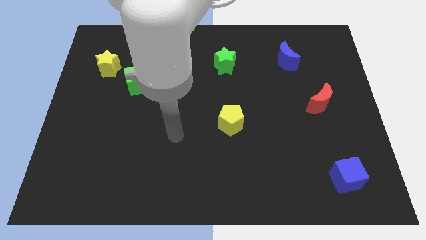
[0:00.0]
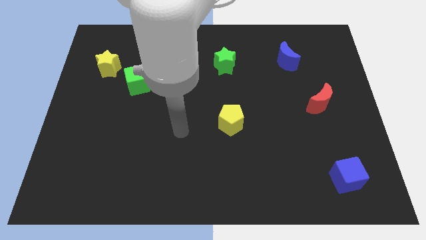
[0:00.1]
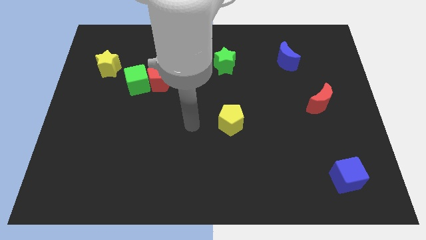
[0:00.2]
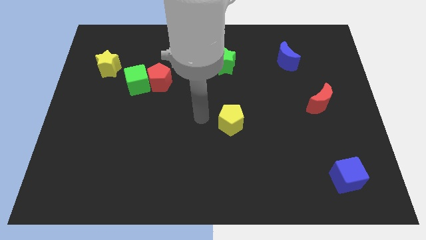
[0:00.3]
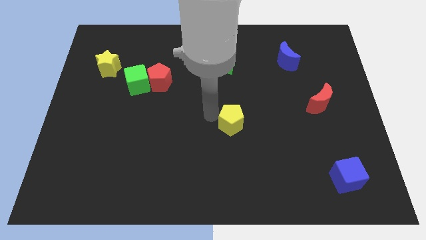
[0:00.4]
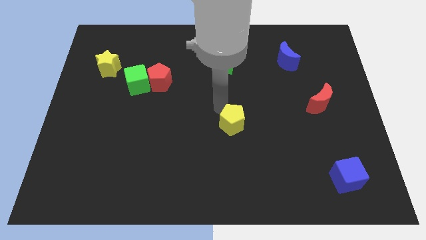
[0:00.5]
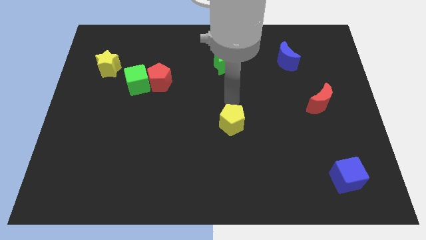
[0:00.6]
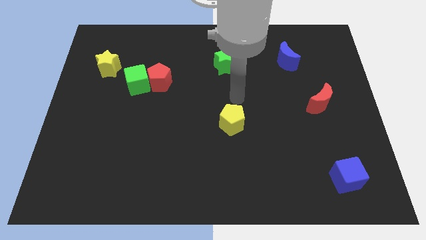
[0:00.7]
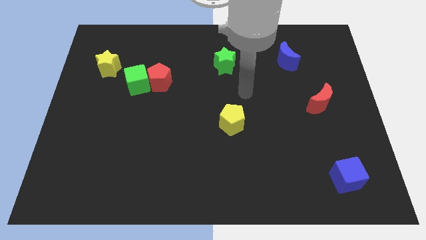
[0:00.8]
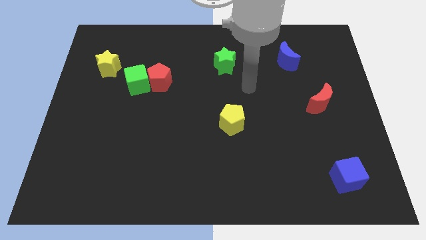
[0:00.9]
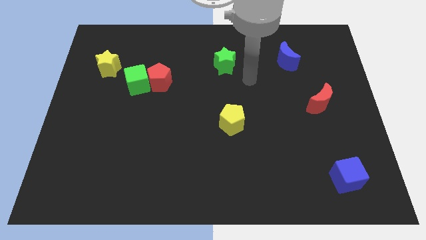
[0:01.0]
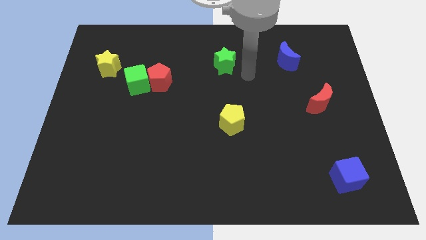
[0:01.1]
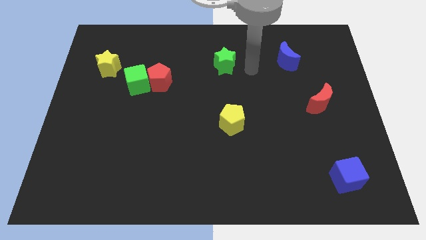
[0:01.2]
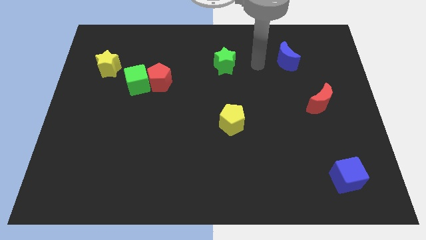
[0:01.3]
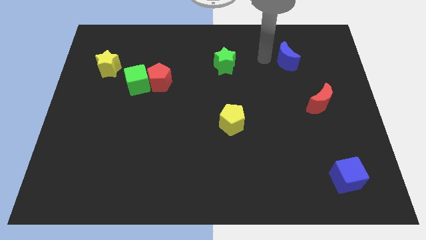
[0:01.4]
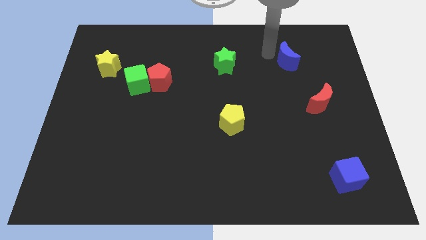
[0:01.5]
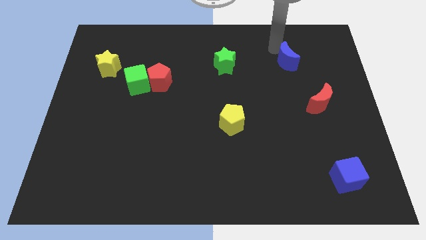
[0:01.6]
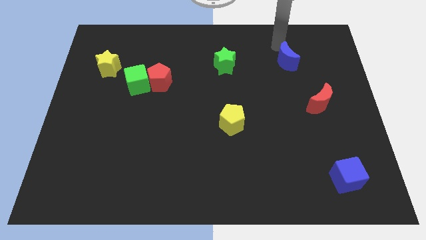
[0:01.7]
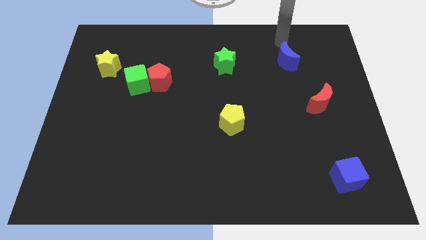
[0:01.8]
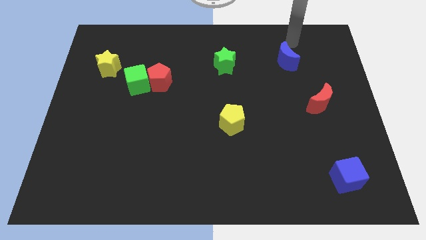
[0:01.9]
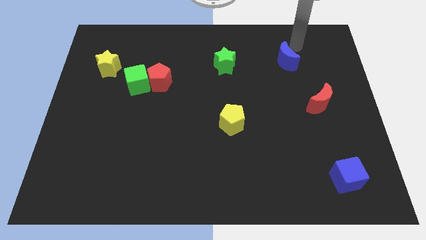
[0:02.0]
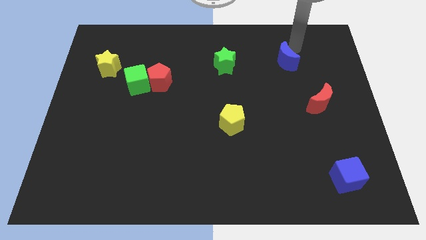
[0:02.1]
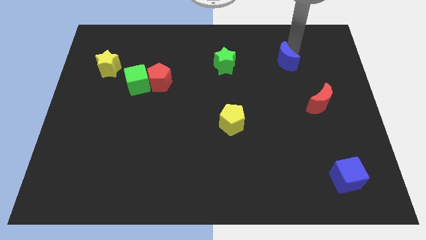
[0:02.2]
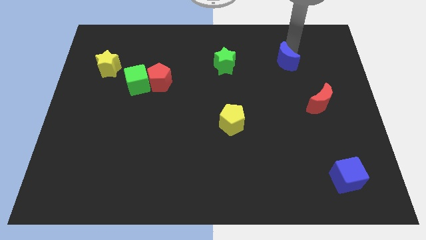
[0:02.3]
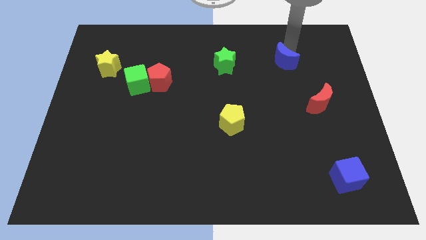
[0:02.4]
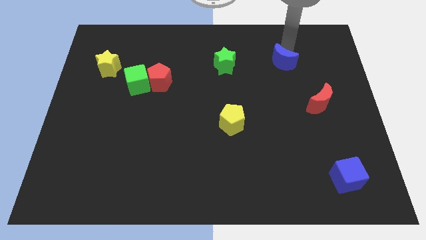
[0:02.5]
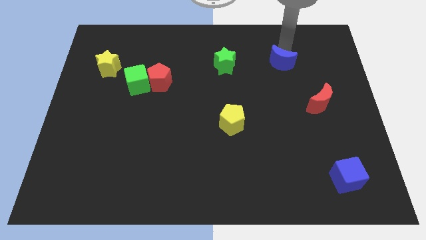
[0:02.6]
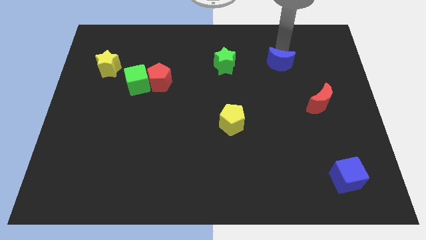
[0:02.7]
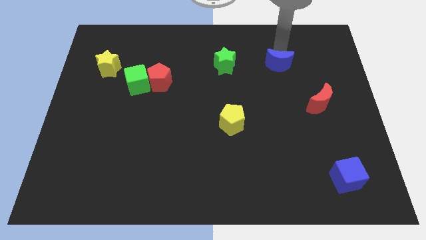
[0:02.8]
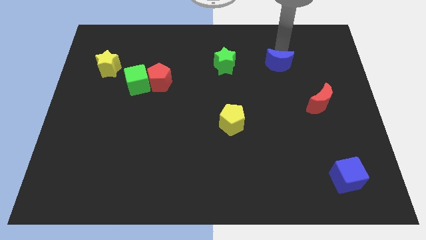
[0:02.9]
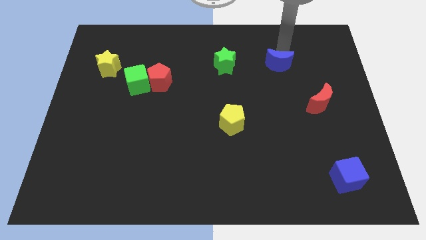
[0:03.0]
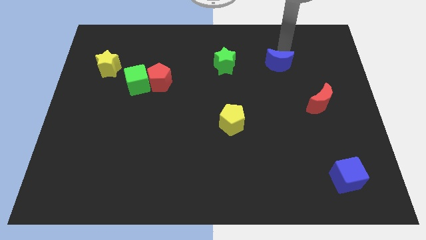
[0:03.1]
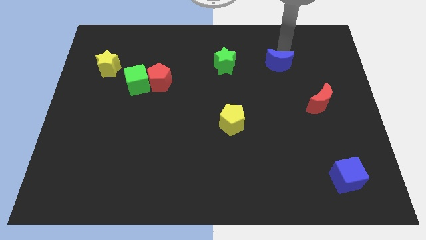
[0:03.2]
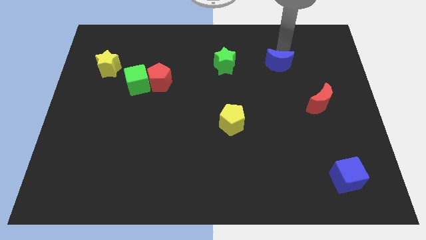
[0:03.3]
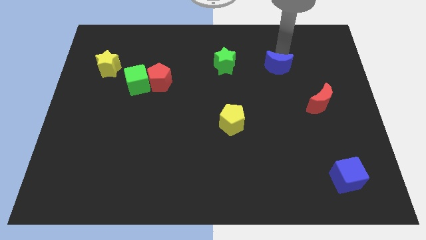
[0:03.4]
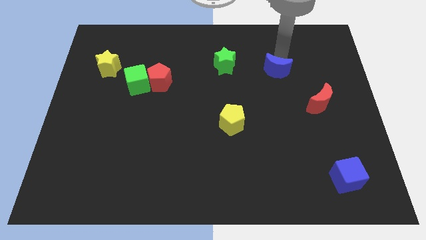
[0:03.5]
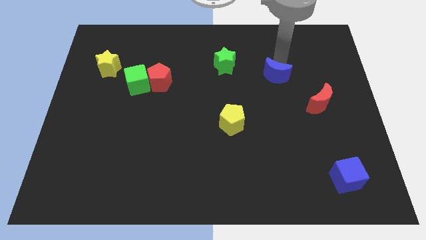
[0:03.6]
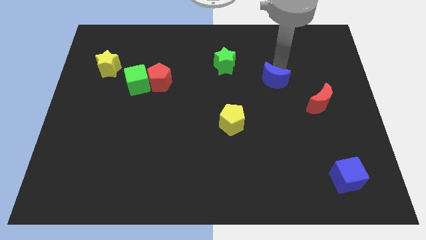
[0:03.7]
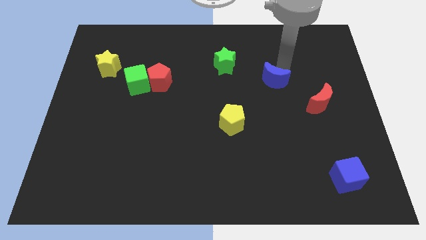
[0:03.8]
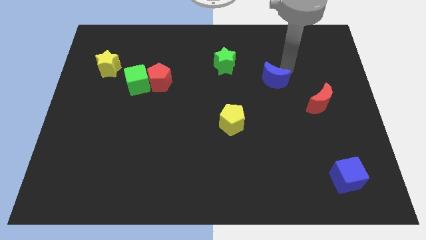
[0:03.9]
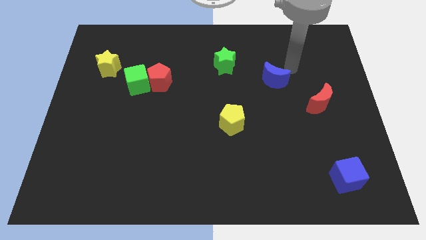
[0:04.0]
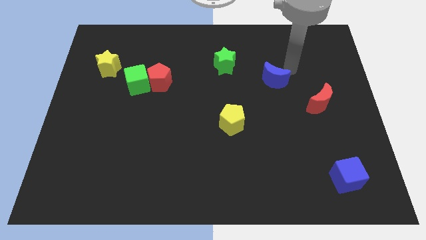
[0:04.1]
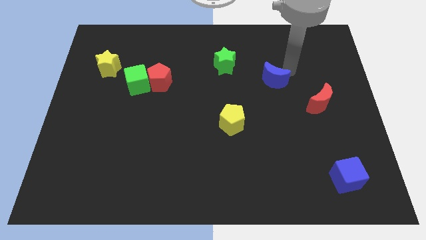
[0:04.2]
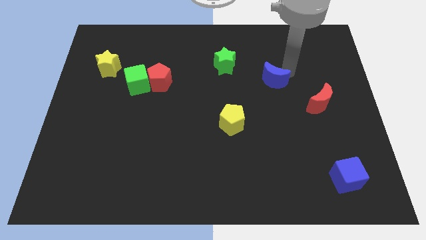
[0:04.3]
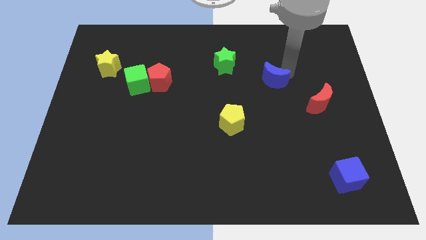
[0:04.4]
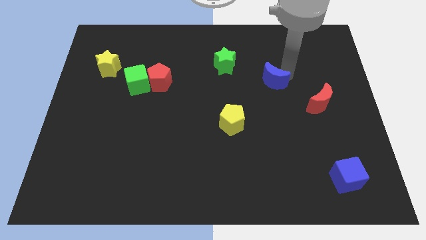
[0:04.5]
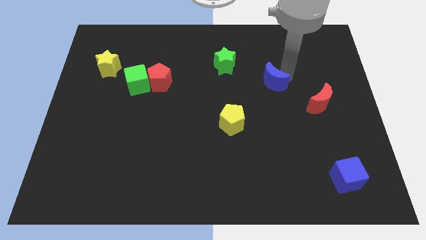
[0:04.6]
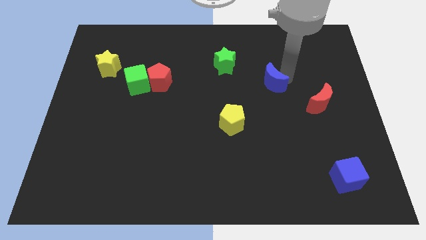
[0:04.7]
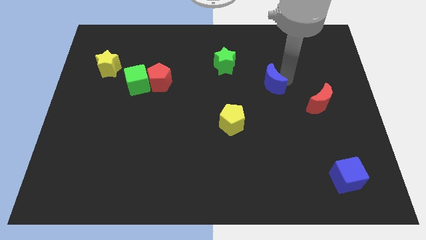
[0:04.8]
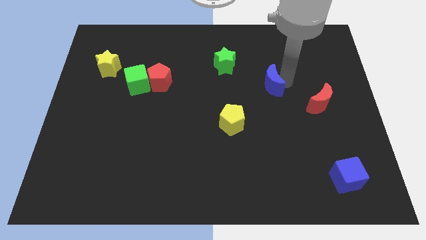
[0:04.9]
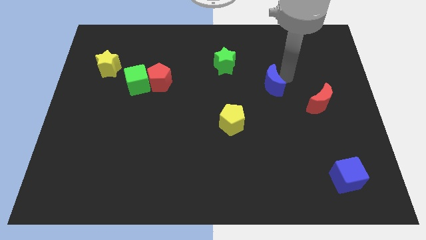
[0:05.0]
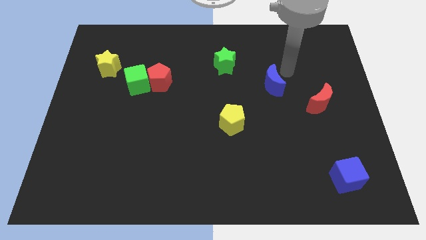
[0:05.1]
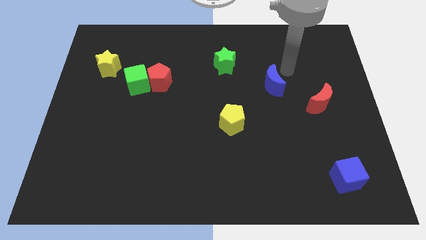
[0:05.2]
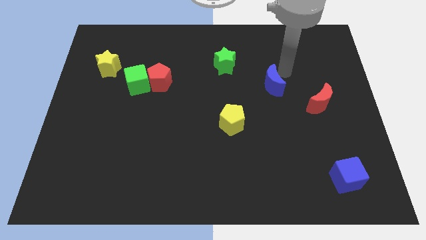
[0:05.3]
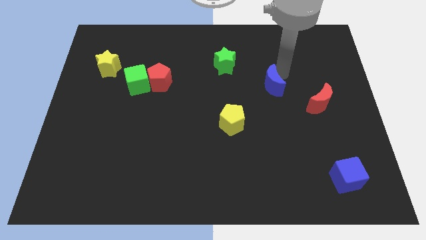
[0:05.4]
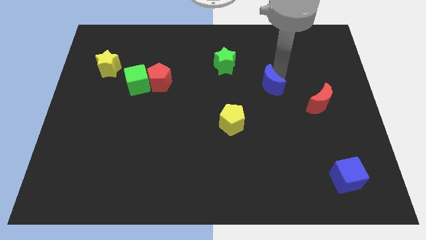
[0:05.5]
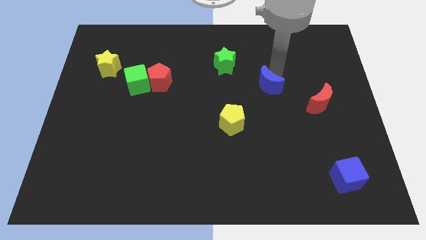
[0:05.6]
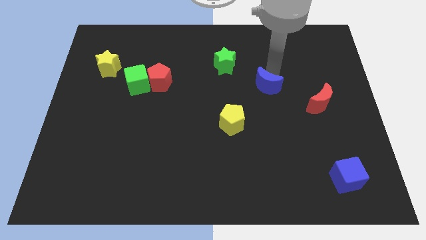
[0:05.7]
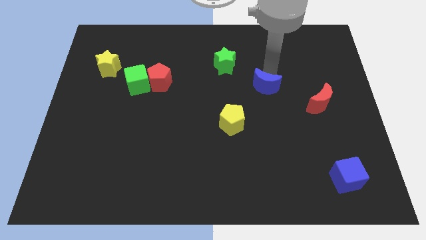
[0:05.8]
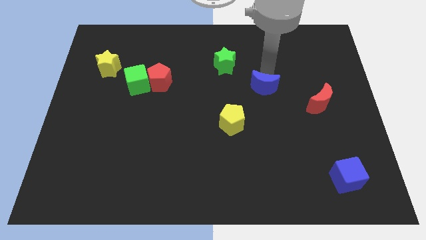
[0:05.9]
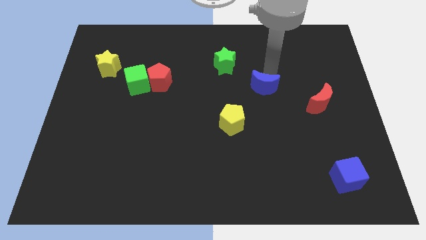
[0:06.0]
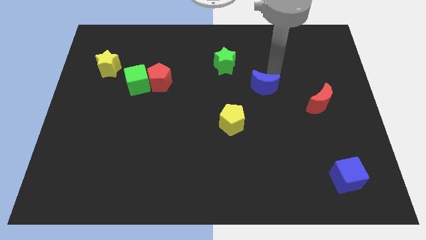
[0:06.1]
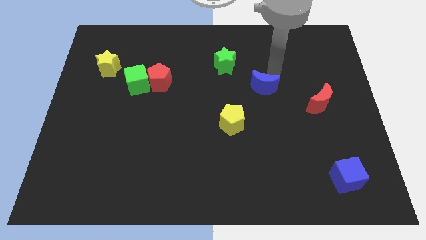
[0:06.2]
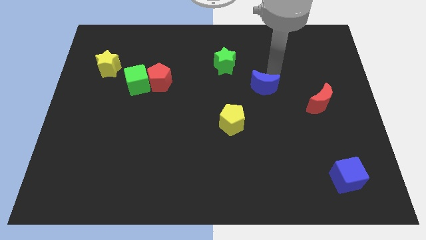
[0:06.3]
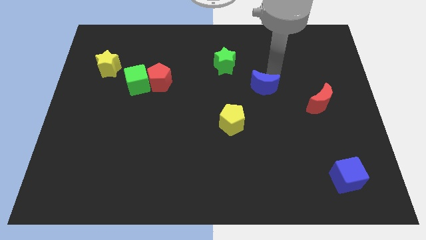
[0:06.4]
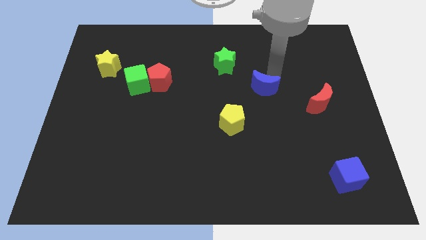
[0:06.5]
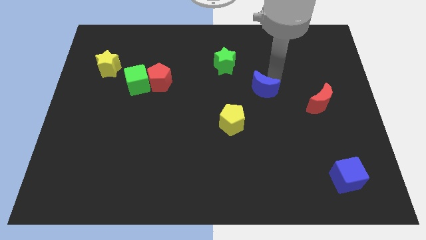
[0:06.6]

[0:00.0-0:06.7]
slide the blue moon to the top right side of the yellow pentagon

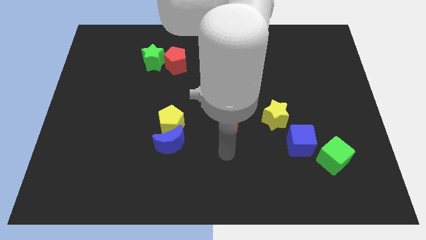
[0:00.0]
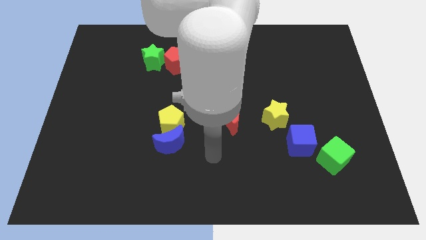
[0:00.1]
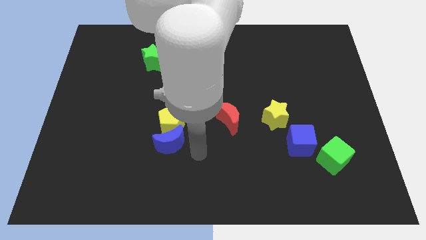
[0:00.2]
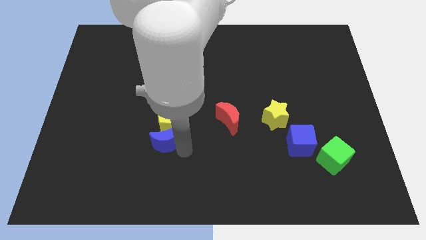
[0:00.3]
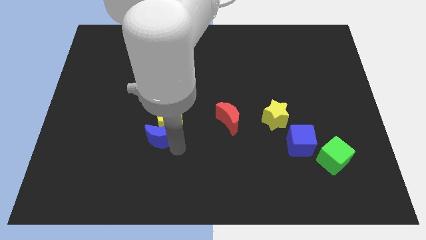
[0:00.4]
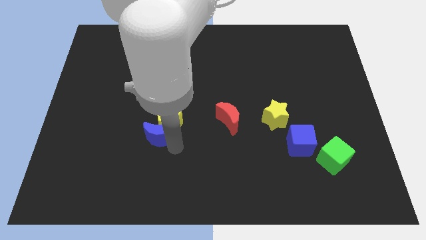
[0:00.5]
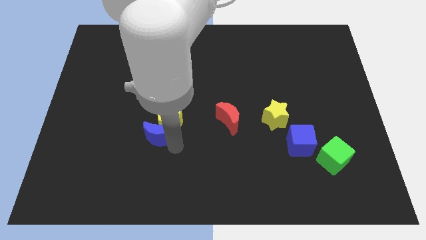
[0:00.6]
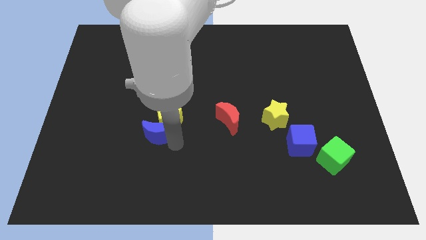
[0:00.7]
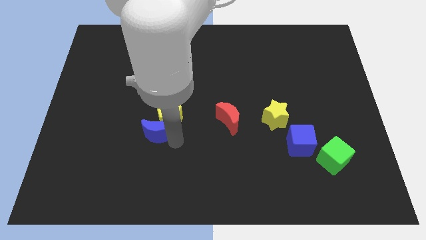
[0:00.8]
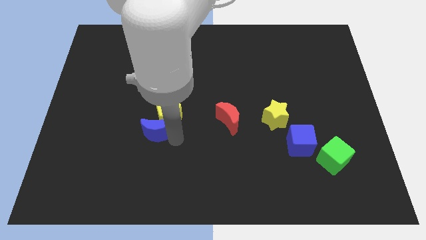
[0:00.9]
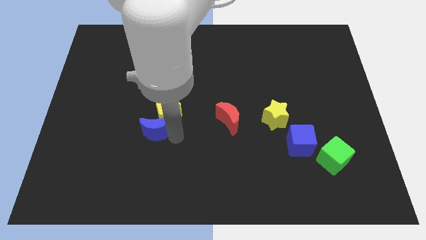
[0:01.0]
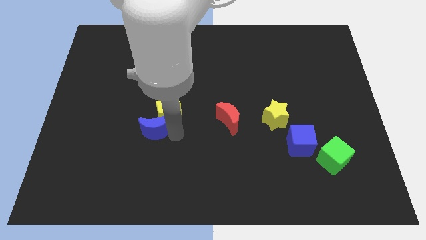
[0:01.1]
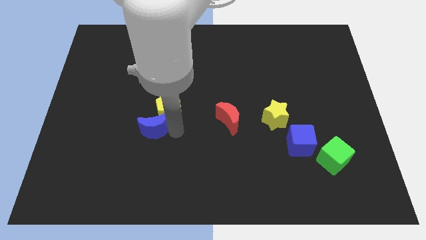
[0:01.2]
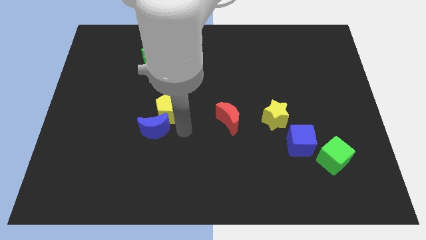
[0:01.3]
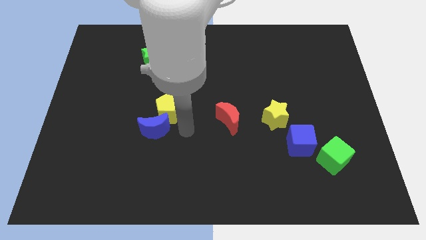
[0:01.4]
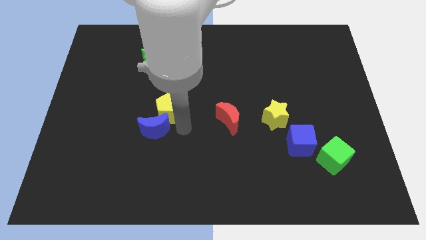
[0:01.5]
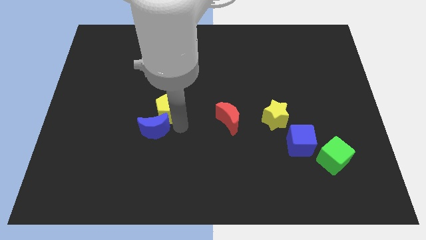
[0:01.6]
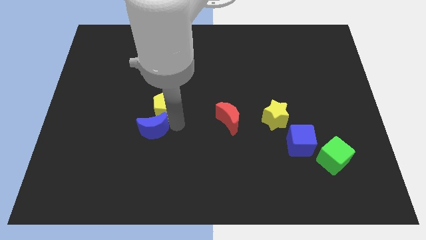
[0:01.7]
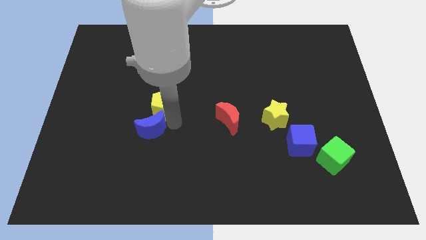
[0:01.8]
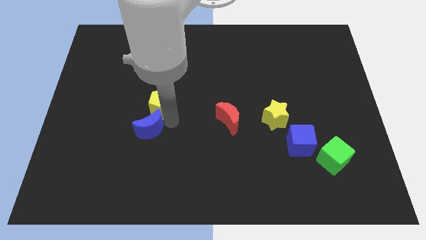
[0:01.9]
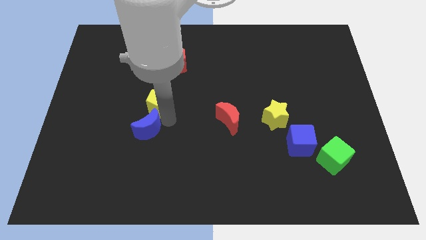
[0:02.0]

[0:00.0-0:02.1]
move the yellow pentagon to the bottom side of the green star
